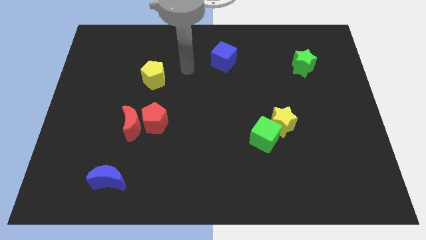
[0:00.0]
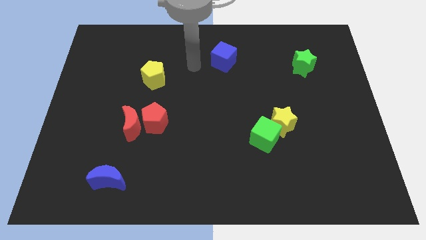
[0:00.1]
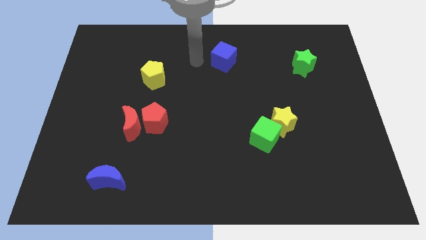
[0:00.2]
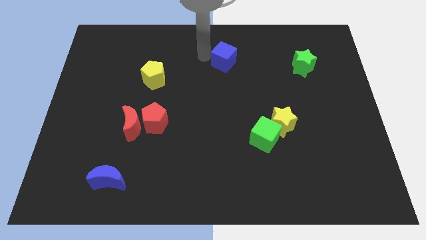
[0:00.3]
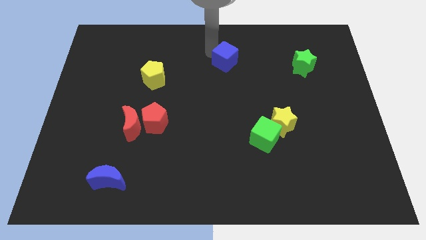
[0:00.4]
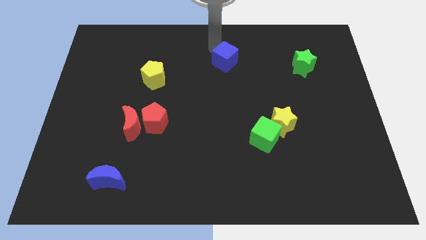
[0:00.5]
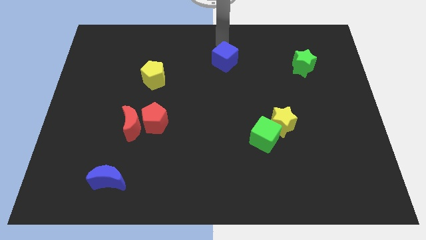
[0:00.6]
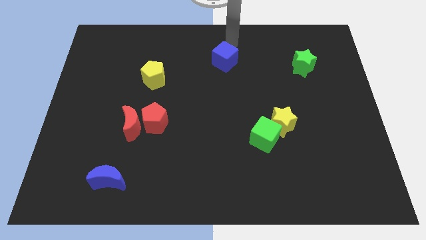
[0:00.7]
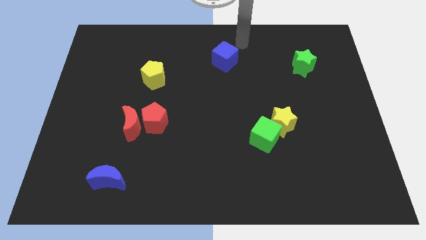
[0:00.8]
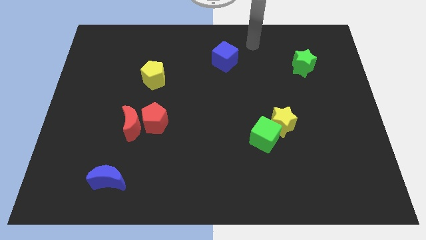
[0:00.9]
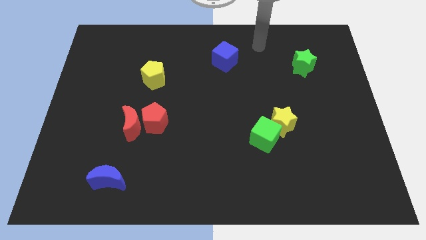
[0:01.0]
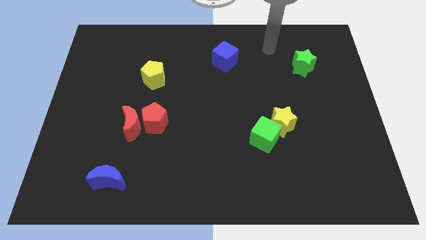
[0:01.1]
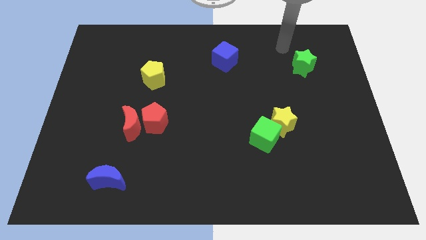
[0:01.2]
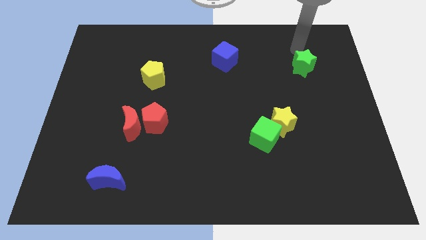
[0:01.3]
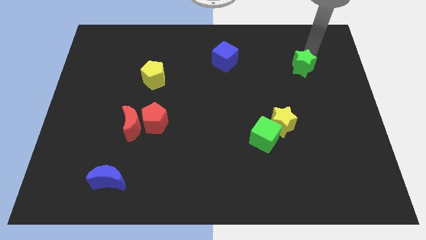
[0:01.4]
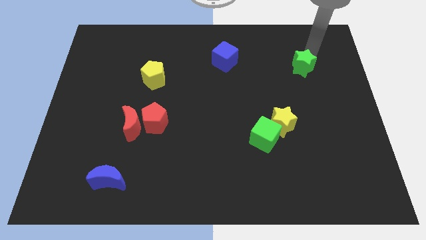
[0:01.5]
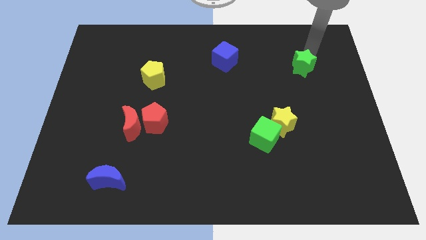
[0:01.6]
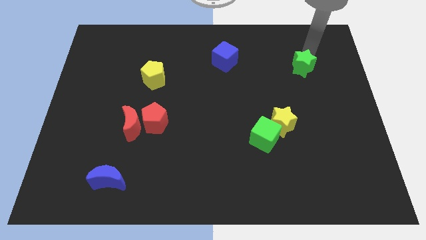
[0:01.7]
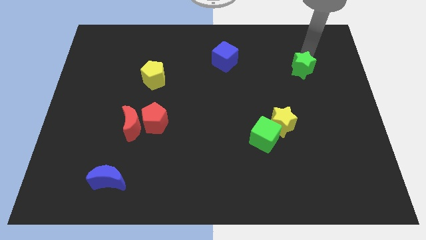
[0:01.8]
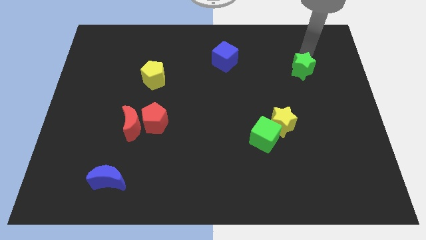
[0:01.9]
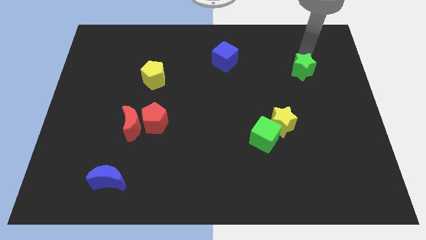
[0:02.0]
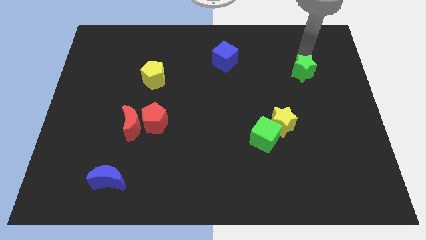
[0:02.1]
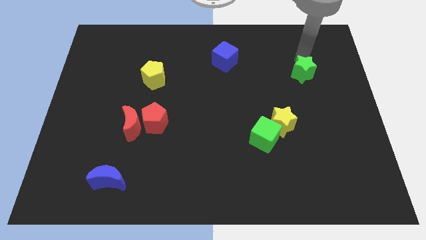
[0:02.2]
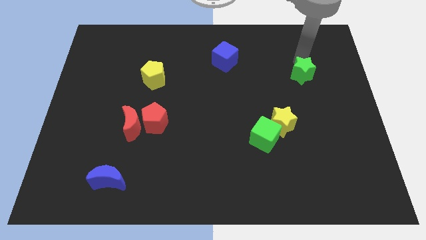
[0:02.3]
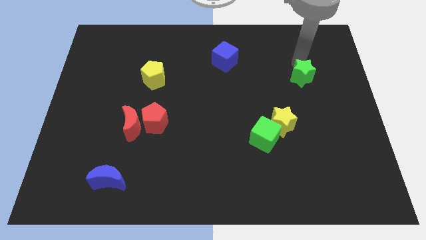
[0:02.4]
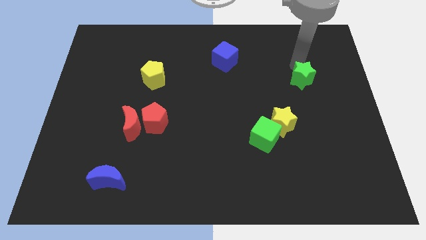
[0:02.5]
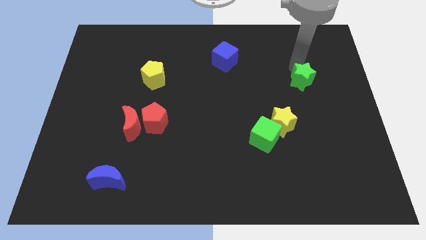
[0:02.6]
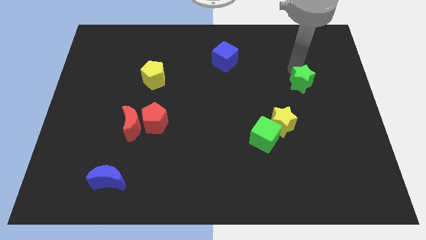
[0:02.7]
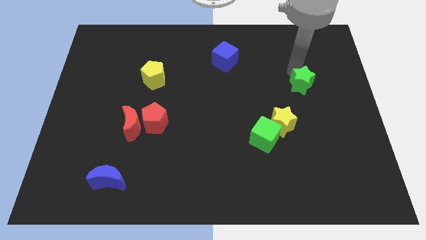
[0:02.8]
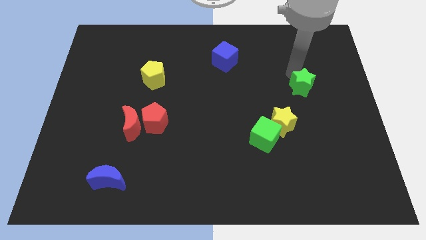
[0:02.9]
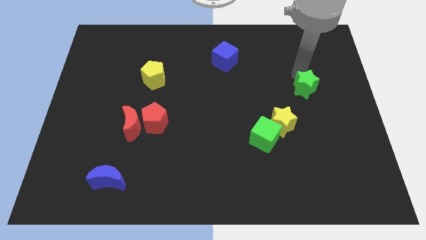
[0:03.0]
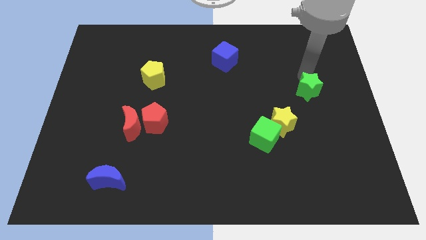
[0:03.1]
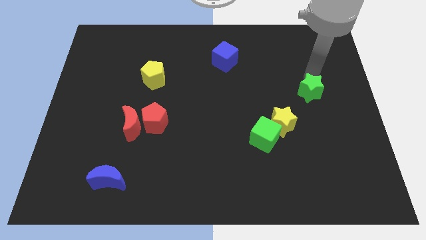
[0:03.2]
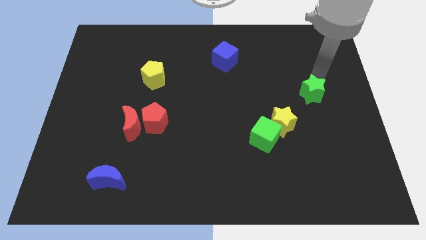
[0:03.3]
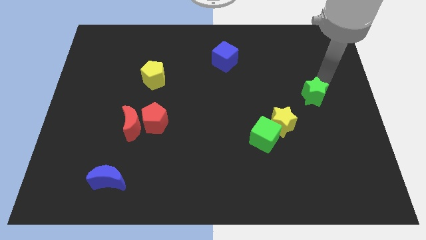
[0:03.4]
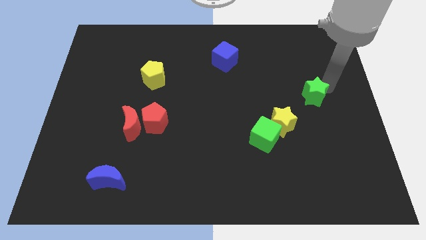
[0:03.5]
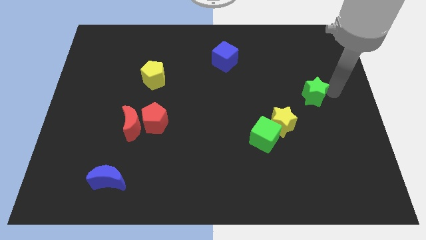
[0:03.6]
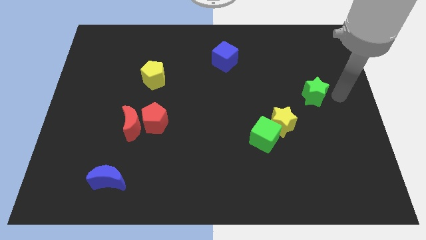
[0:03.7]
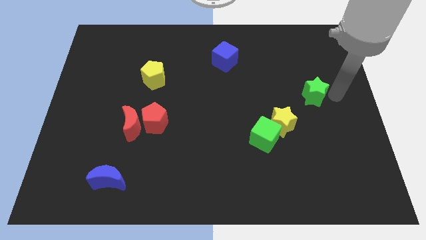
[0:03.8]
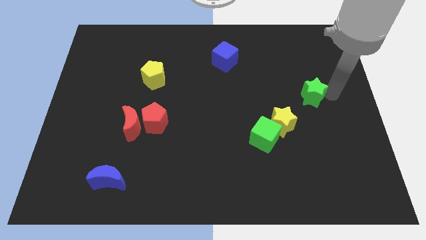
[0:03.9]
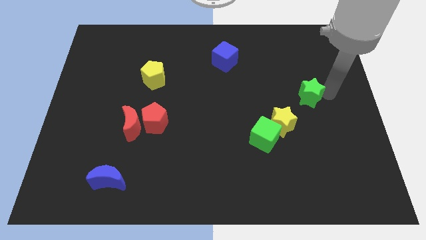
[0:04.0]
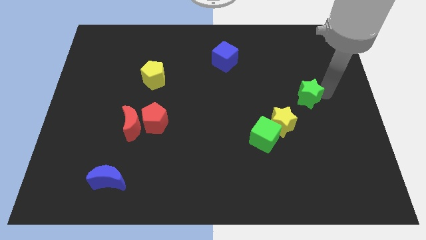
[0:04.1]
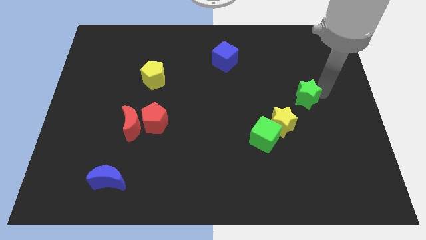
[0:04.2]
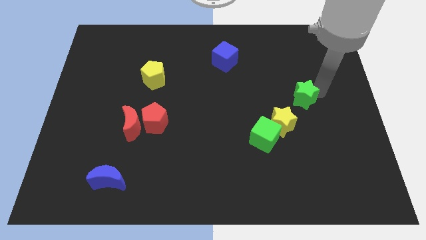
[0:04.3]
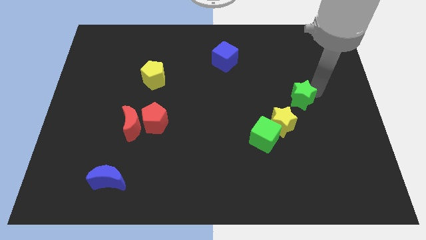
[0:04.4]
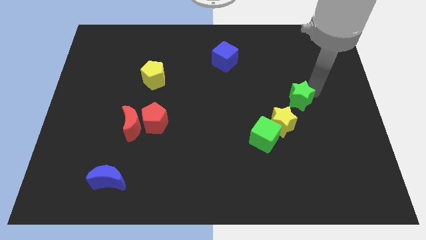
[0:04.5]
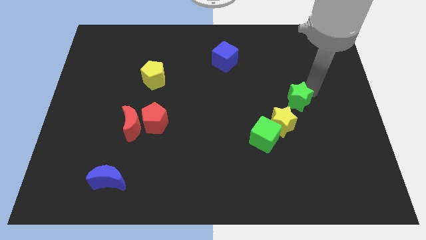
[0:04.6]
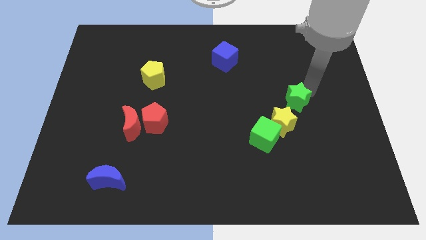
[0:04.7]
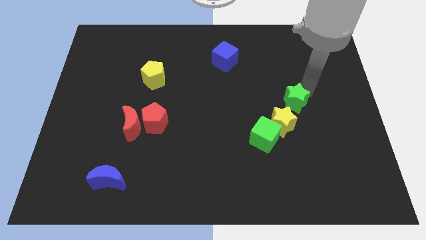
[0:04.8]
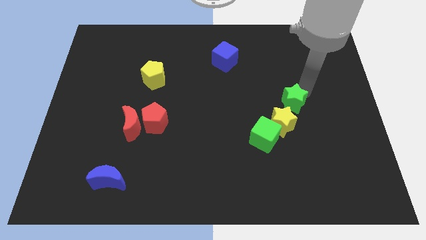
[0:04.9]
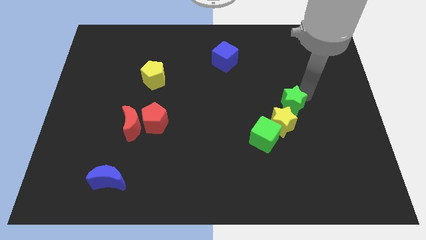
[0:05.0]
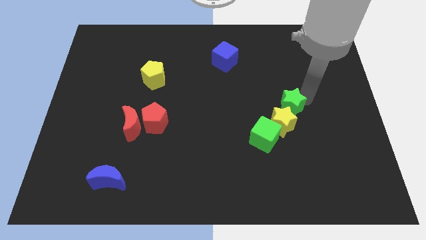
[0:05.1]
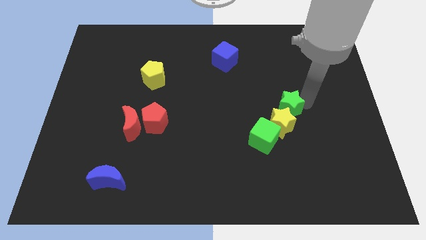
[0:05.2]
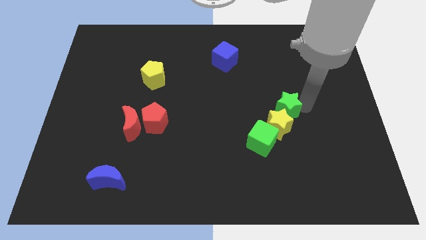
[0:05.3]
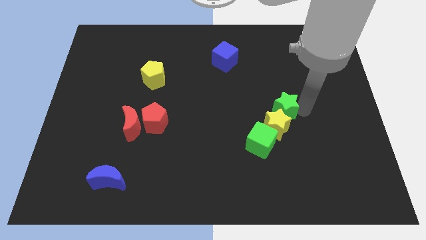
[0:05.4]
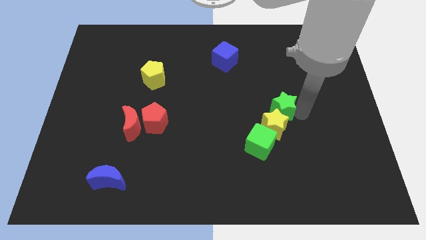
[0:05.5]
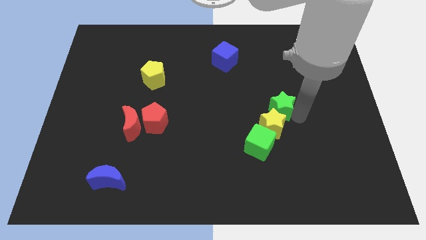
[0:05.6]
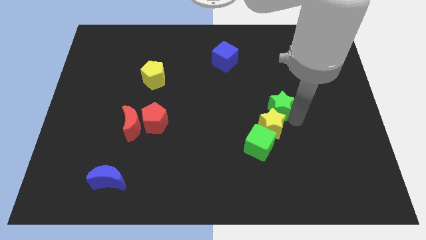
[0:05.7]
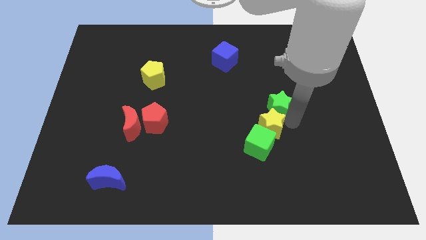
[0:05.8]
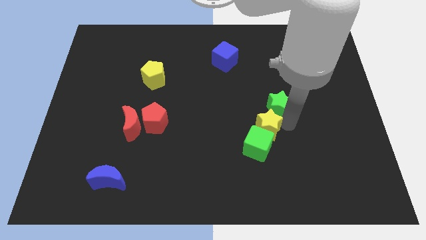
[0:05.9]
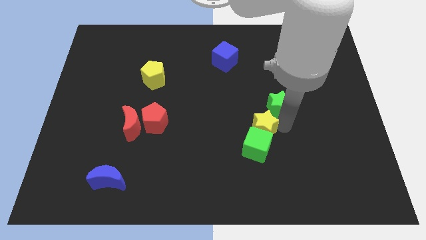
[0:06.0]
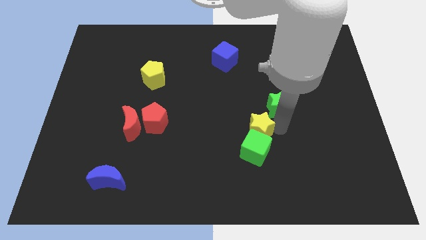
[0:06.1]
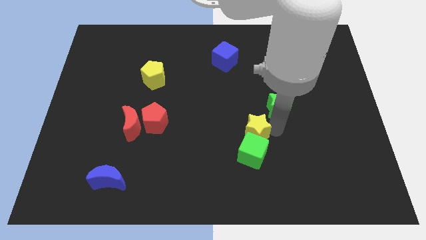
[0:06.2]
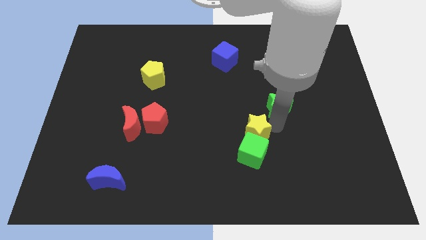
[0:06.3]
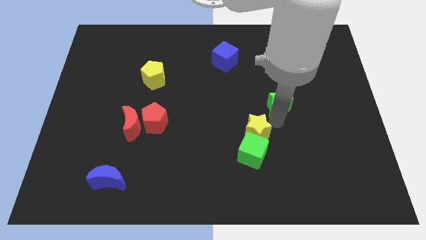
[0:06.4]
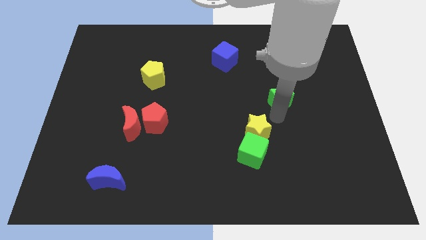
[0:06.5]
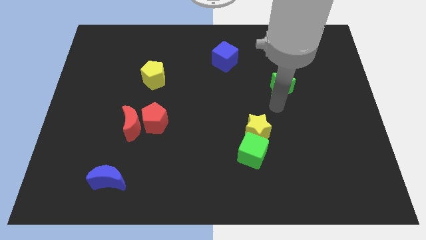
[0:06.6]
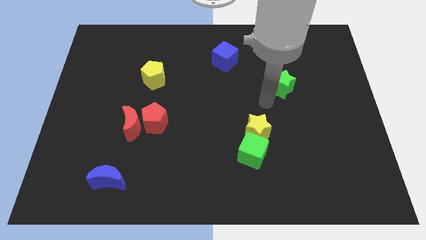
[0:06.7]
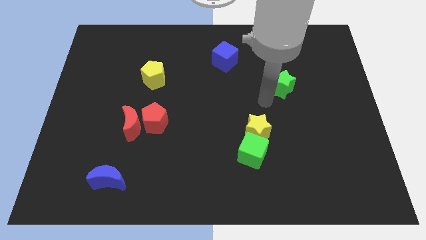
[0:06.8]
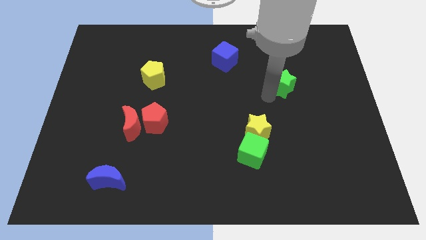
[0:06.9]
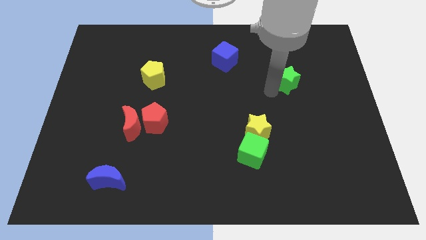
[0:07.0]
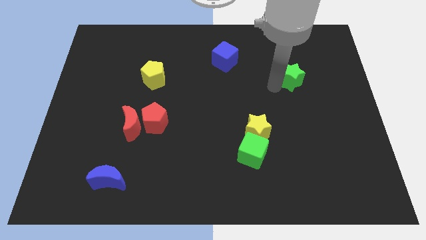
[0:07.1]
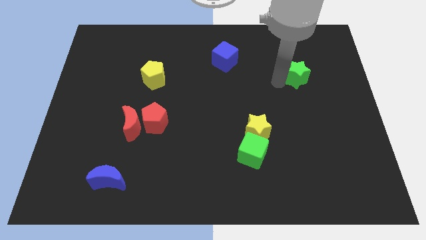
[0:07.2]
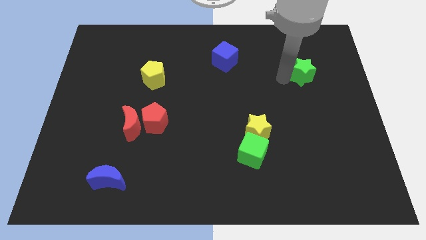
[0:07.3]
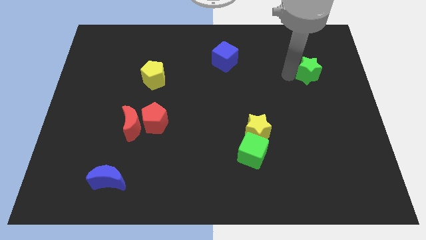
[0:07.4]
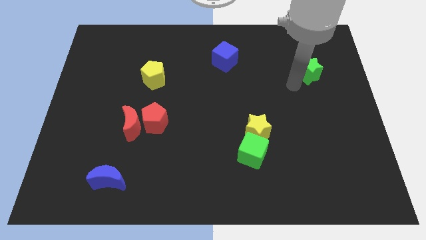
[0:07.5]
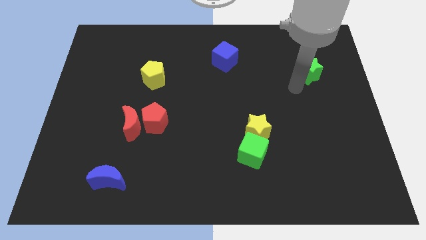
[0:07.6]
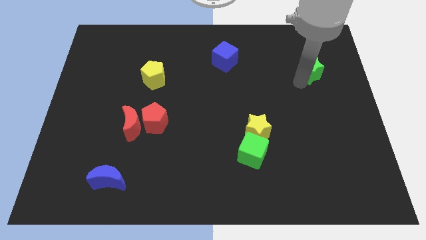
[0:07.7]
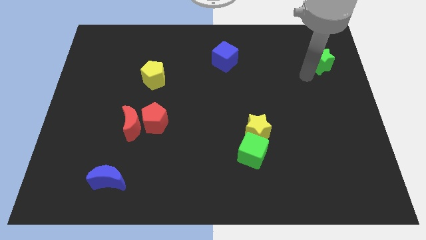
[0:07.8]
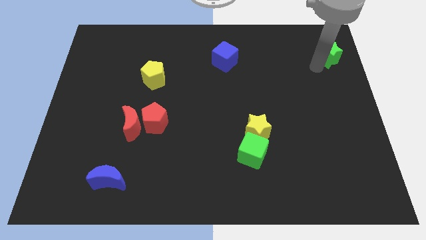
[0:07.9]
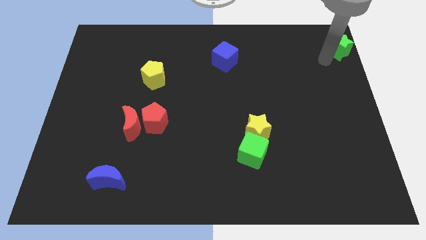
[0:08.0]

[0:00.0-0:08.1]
move the green star to the top right of the board
